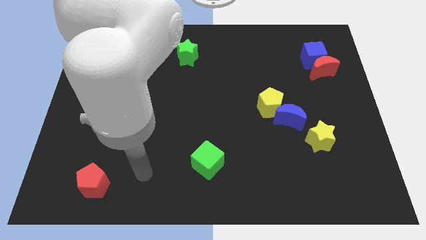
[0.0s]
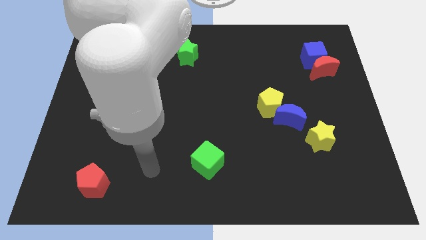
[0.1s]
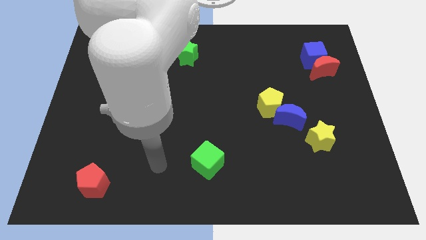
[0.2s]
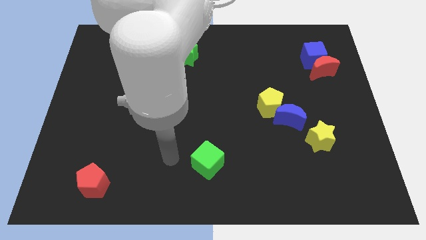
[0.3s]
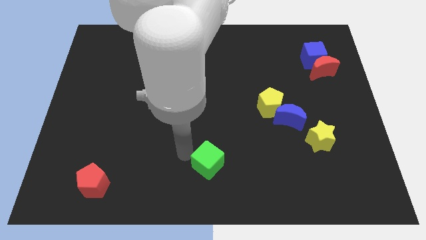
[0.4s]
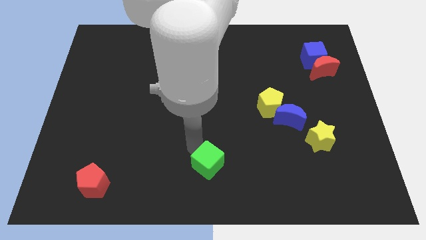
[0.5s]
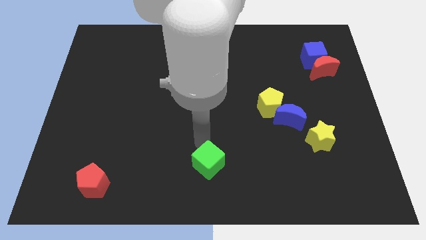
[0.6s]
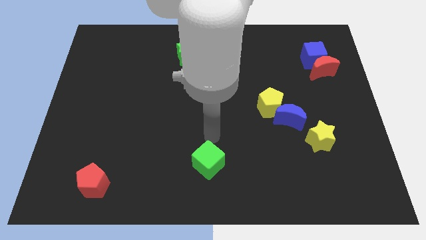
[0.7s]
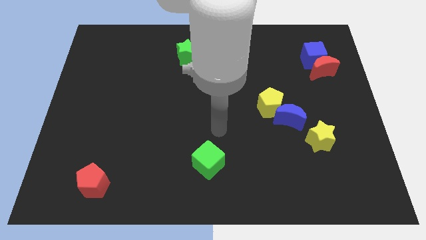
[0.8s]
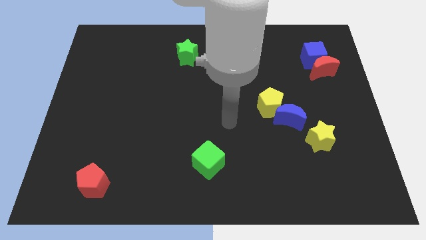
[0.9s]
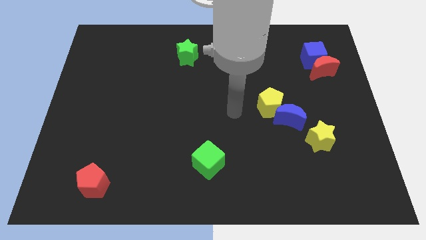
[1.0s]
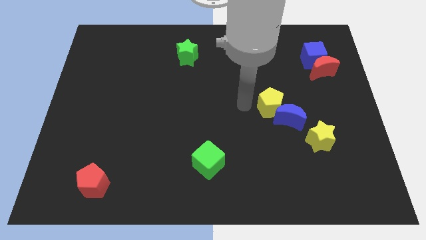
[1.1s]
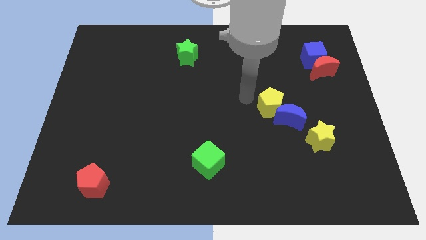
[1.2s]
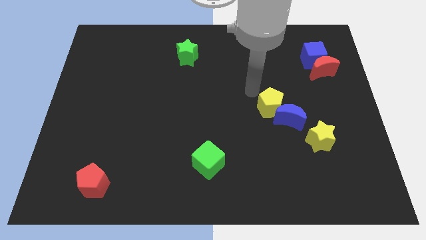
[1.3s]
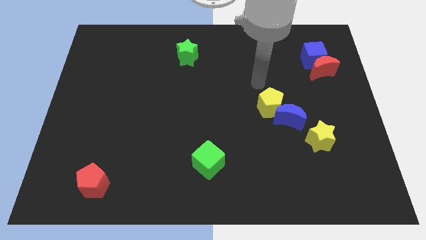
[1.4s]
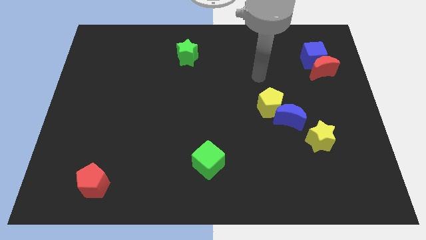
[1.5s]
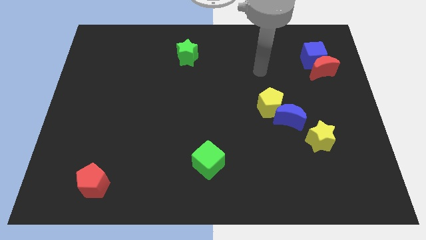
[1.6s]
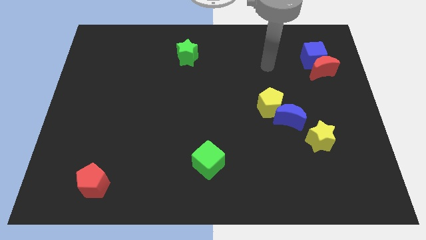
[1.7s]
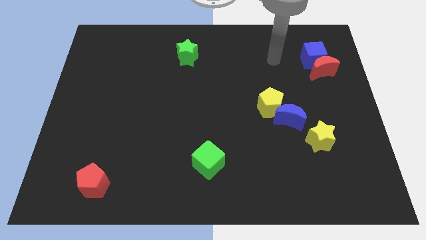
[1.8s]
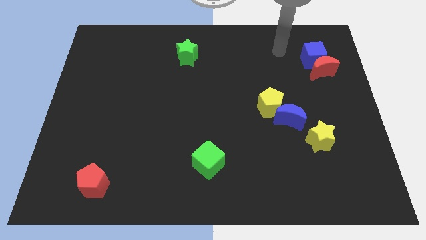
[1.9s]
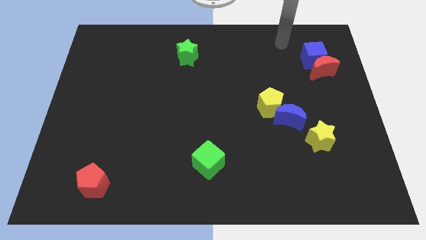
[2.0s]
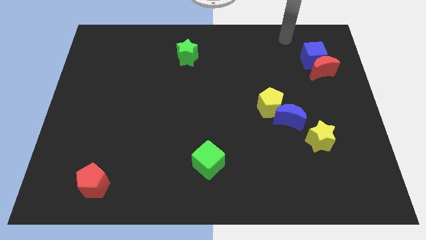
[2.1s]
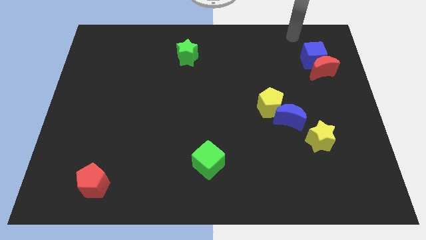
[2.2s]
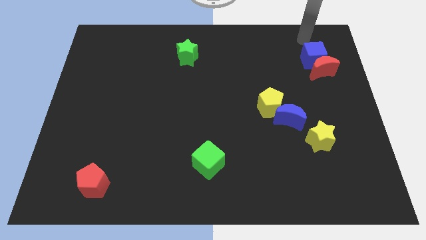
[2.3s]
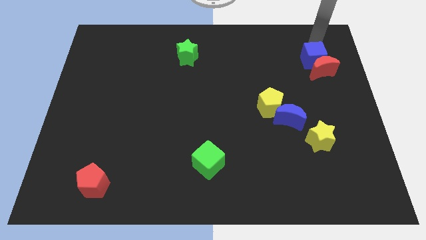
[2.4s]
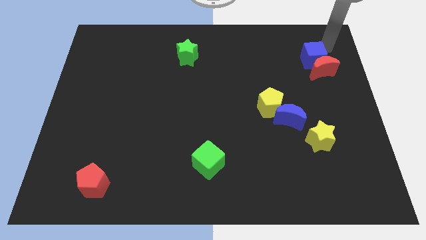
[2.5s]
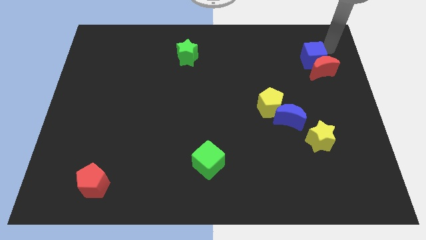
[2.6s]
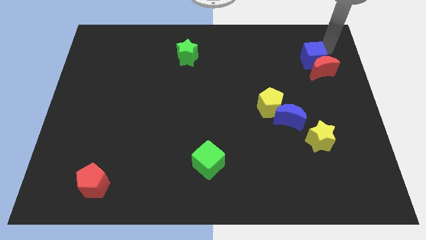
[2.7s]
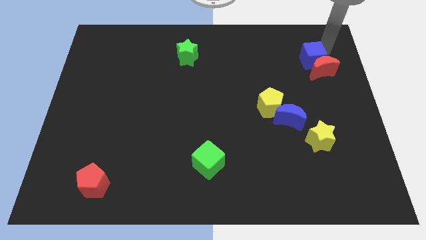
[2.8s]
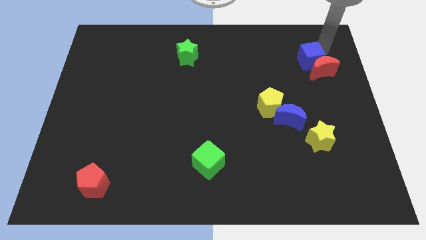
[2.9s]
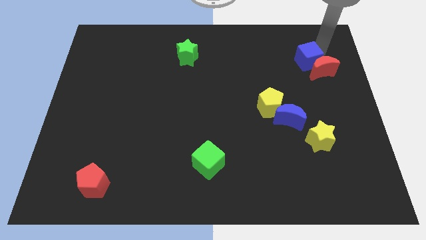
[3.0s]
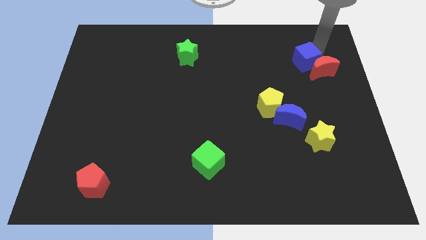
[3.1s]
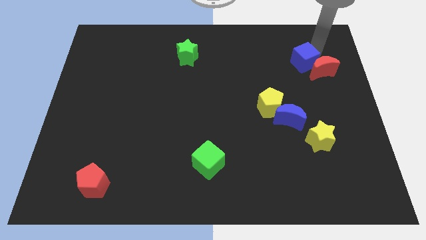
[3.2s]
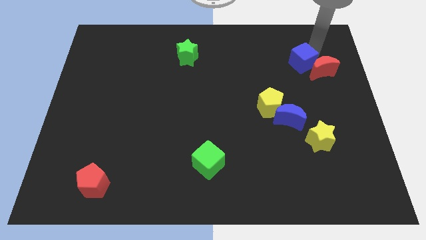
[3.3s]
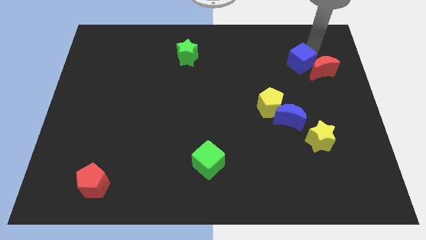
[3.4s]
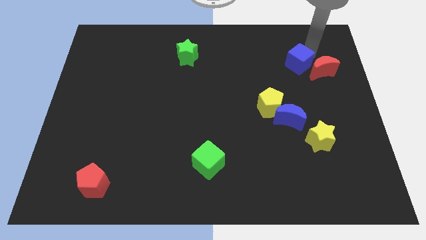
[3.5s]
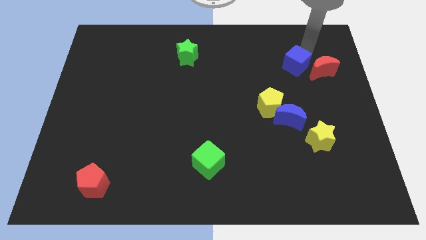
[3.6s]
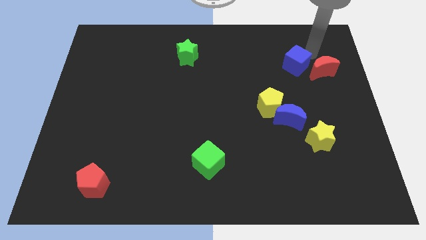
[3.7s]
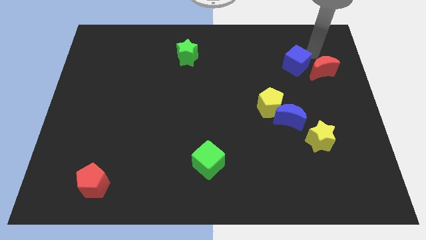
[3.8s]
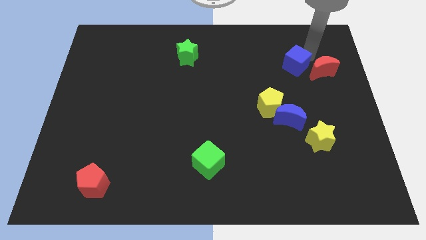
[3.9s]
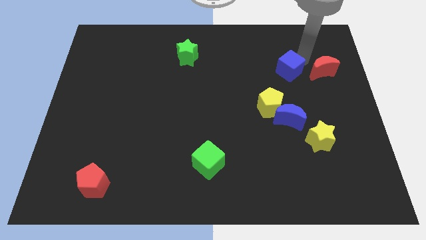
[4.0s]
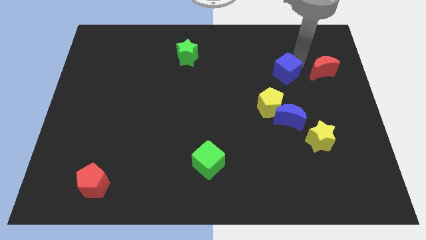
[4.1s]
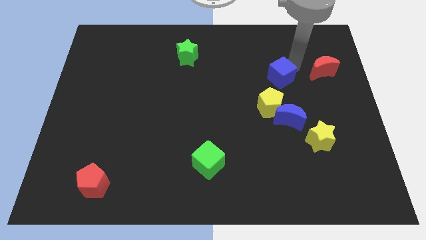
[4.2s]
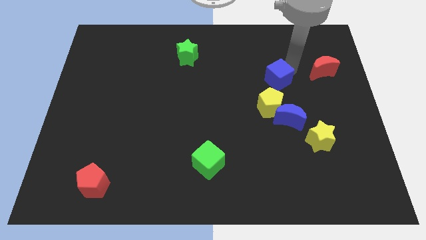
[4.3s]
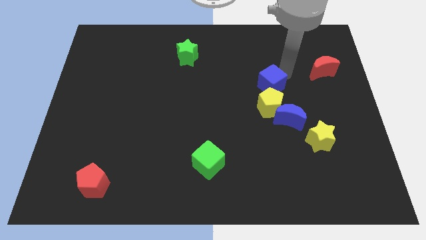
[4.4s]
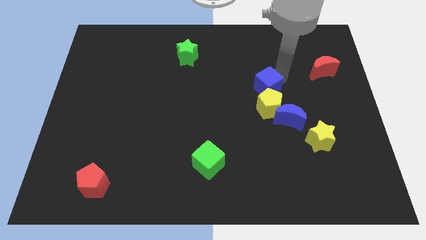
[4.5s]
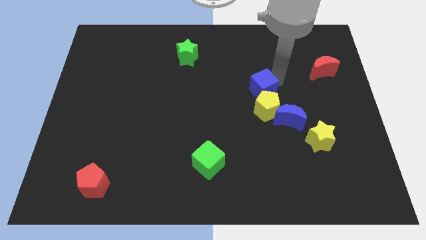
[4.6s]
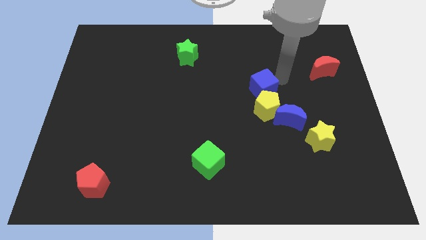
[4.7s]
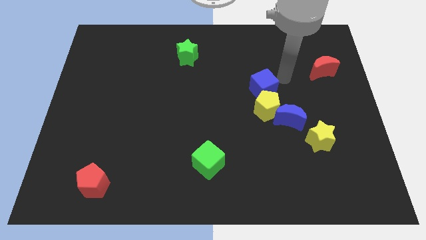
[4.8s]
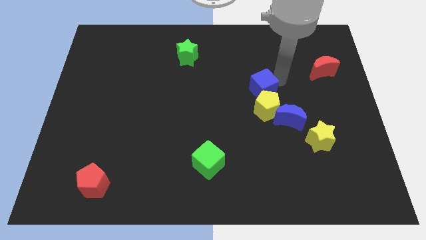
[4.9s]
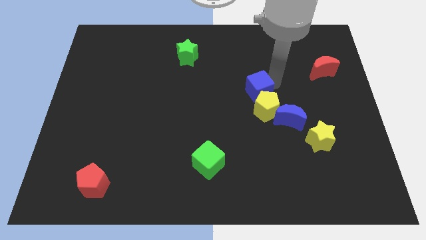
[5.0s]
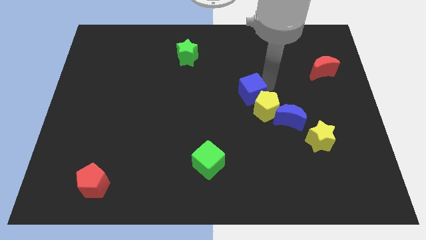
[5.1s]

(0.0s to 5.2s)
slide the blue cube diagonally downwards and to the left

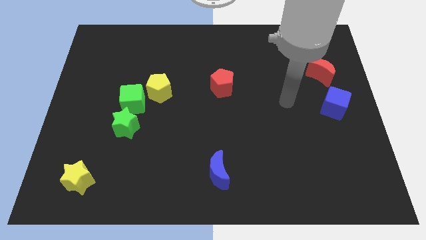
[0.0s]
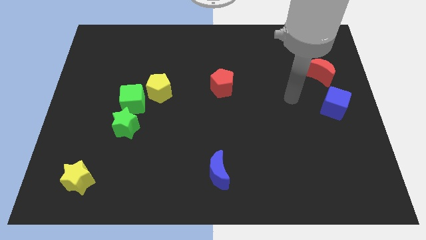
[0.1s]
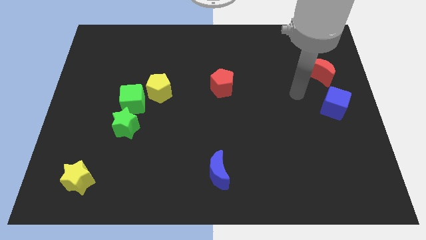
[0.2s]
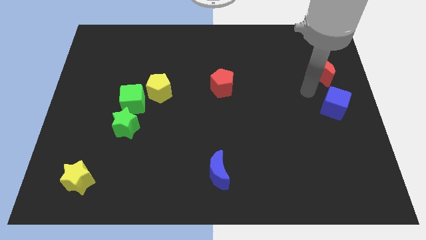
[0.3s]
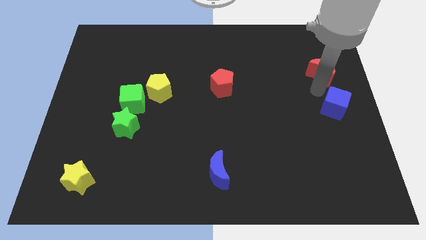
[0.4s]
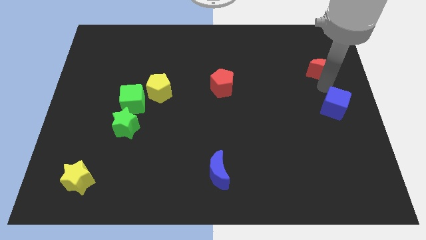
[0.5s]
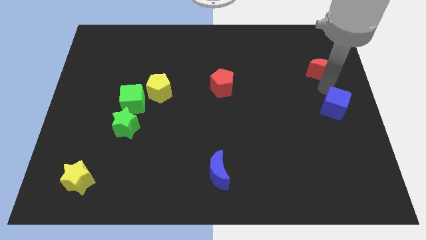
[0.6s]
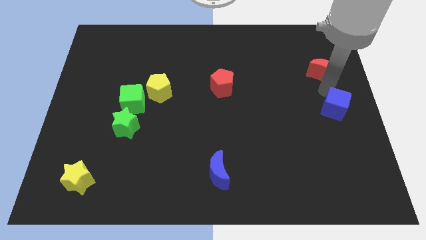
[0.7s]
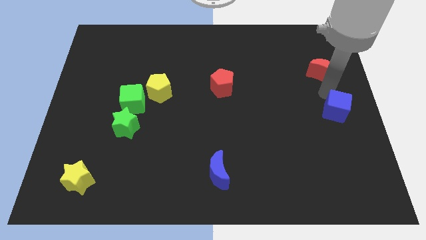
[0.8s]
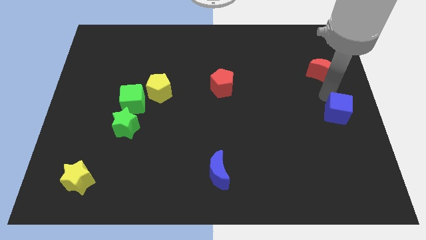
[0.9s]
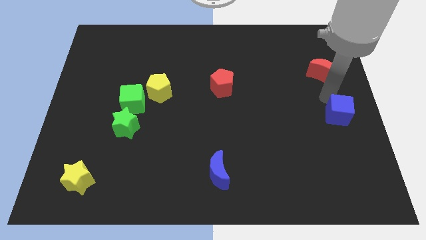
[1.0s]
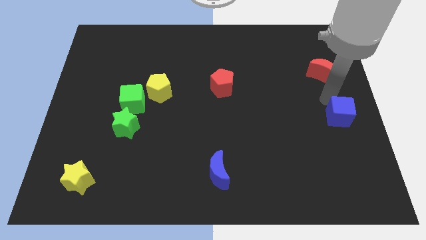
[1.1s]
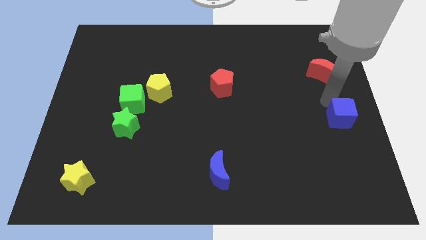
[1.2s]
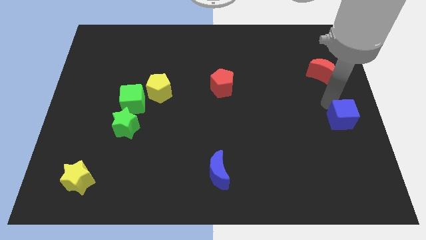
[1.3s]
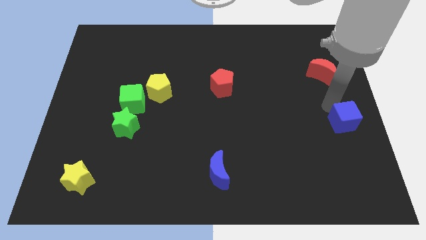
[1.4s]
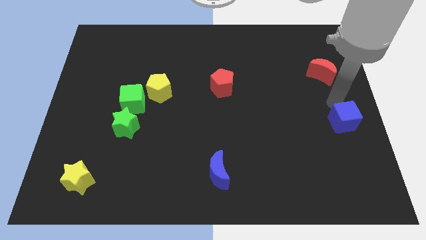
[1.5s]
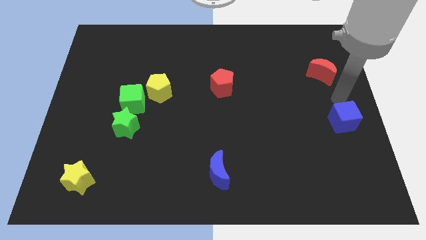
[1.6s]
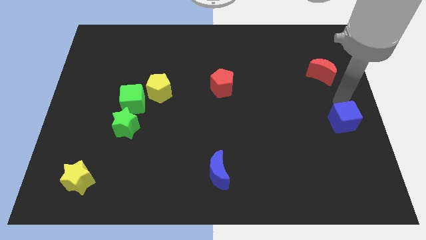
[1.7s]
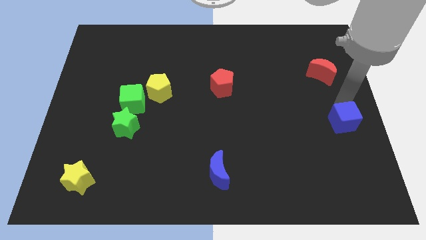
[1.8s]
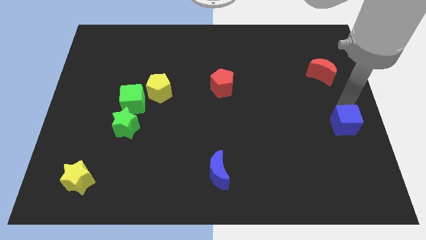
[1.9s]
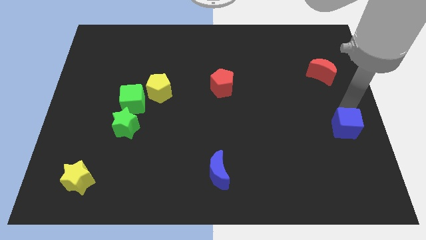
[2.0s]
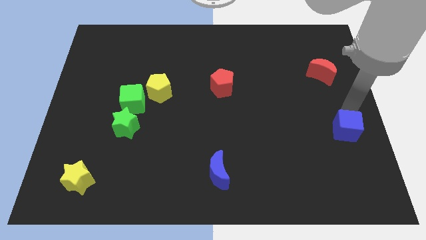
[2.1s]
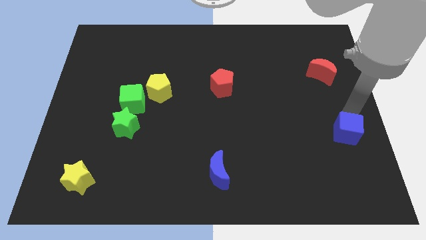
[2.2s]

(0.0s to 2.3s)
slightly move the blue cube down

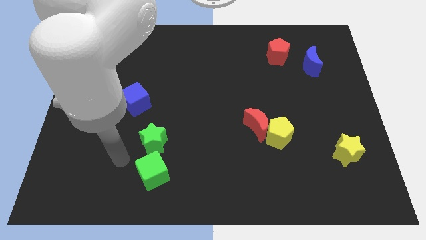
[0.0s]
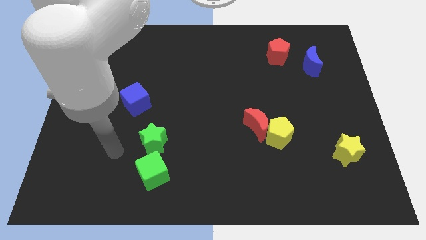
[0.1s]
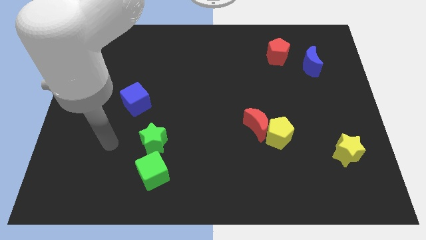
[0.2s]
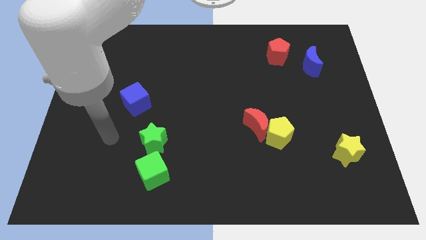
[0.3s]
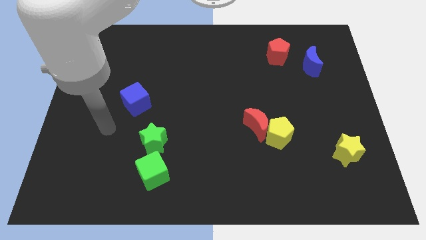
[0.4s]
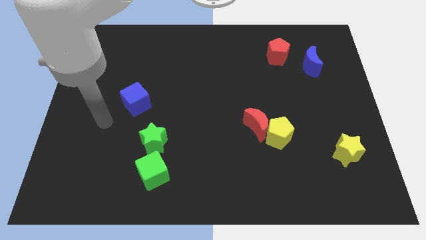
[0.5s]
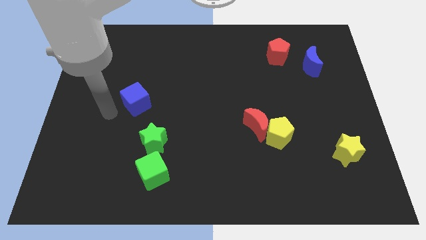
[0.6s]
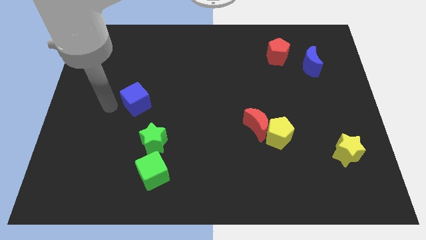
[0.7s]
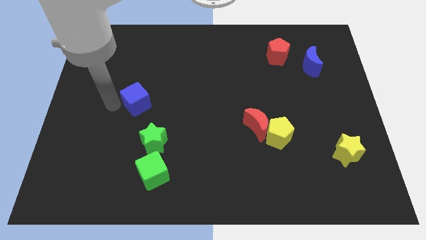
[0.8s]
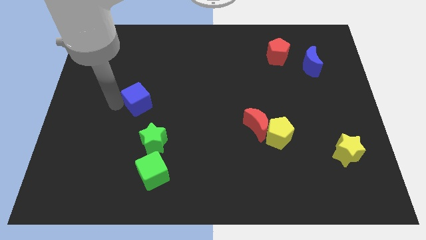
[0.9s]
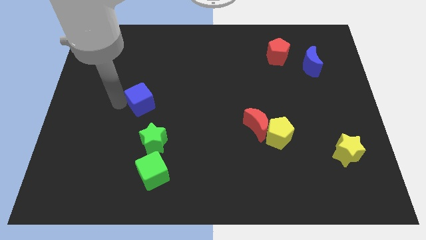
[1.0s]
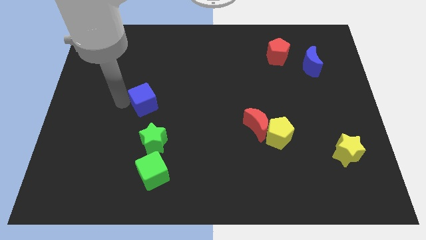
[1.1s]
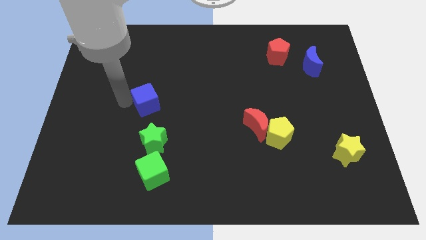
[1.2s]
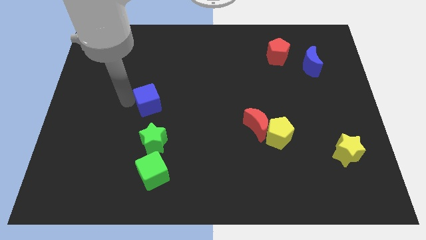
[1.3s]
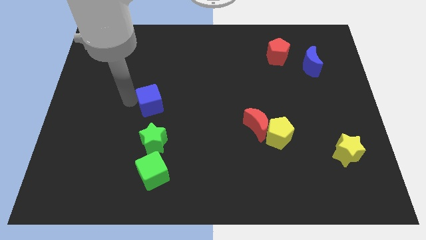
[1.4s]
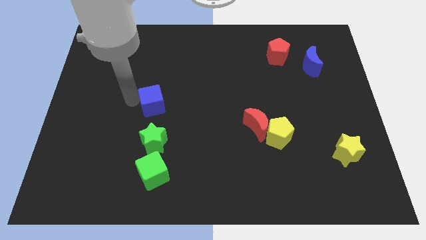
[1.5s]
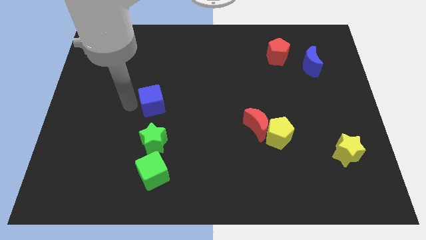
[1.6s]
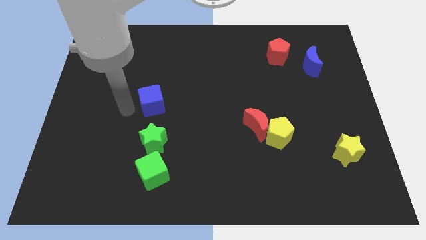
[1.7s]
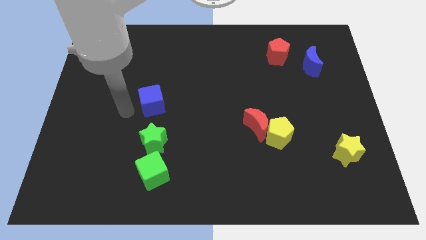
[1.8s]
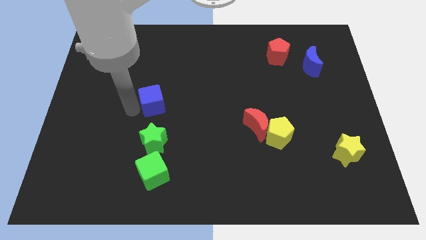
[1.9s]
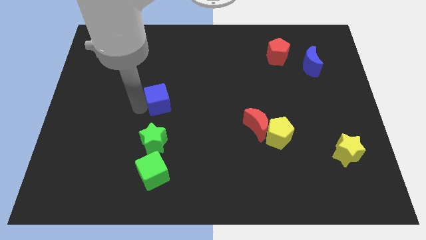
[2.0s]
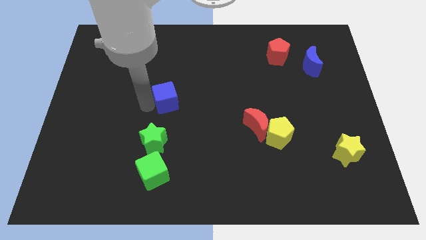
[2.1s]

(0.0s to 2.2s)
slightly move the blue cube right
